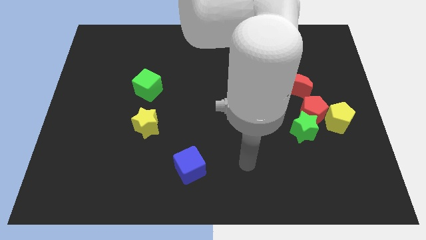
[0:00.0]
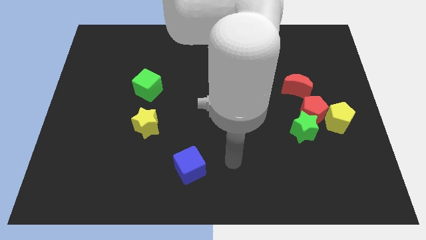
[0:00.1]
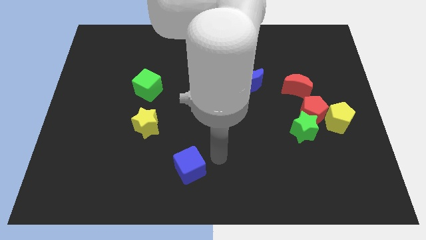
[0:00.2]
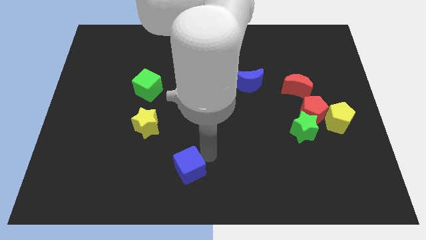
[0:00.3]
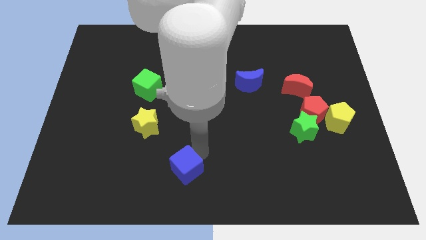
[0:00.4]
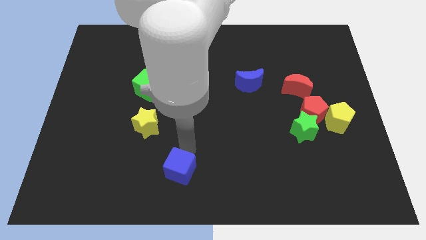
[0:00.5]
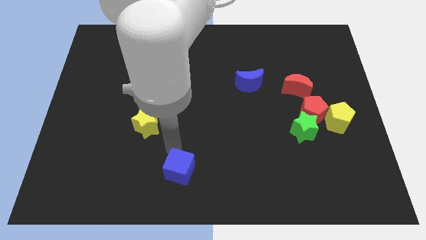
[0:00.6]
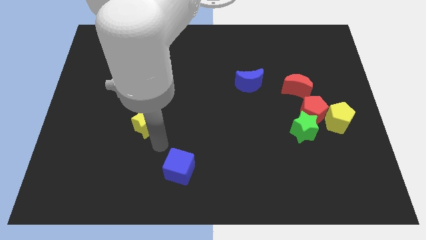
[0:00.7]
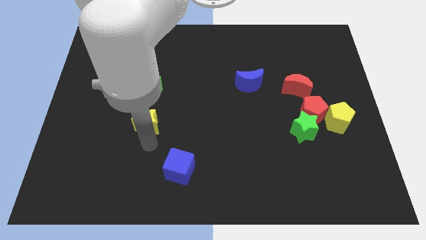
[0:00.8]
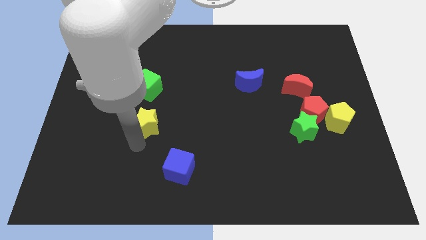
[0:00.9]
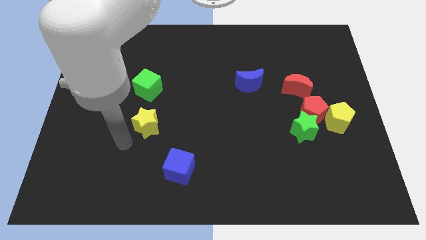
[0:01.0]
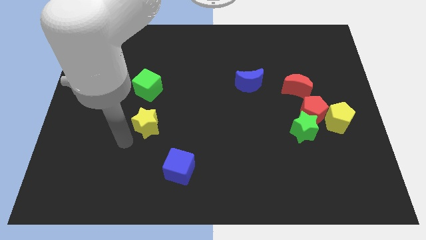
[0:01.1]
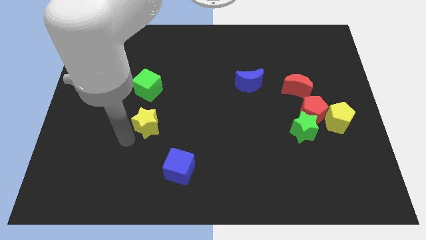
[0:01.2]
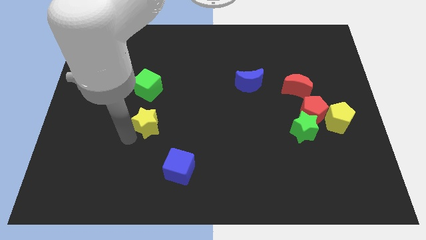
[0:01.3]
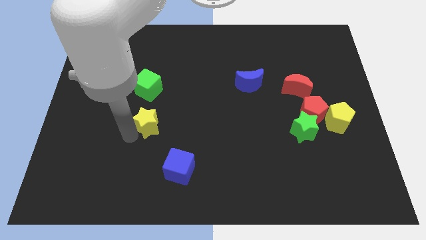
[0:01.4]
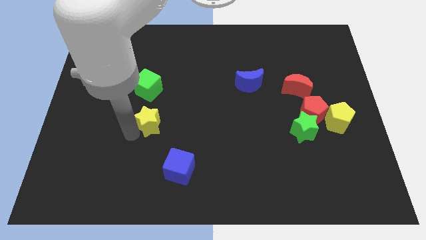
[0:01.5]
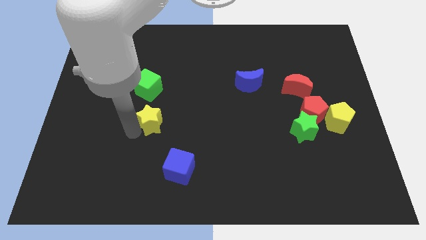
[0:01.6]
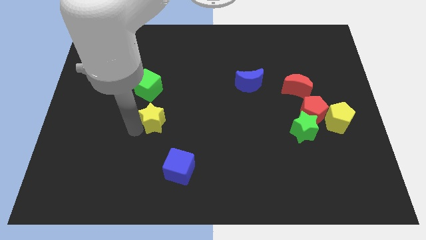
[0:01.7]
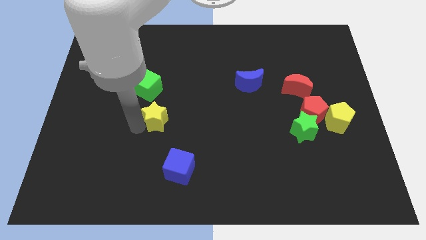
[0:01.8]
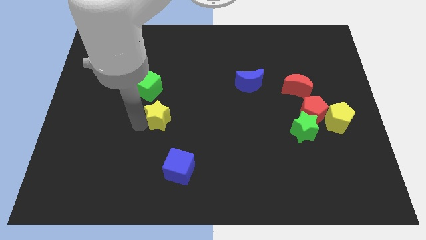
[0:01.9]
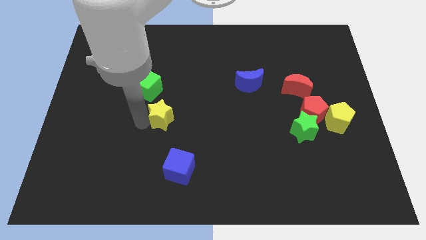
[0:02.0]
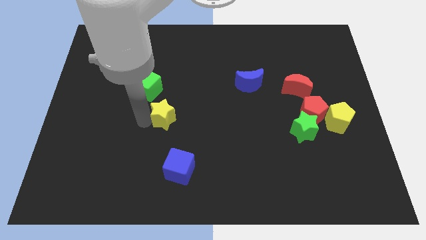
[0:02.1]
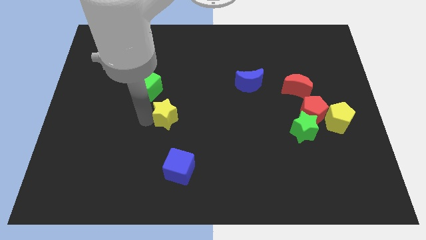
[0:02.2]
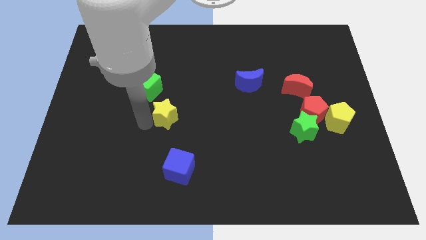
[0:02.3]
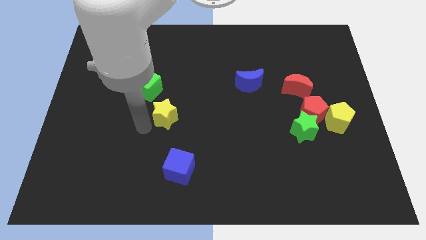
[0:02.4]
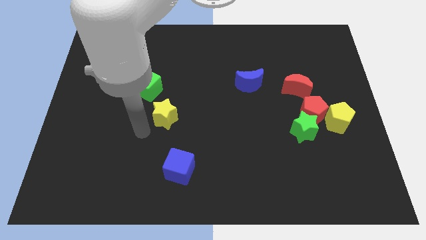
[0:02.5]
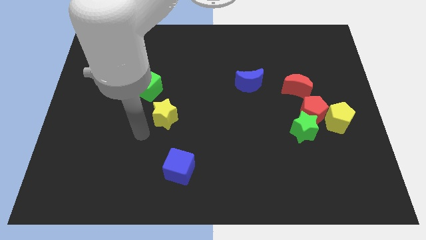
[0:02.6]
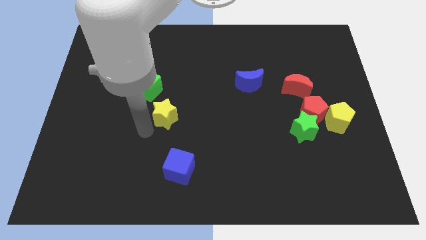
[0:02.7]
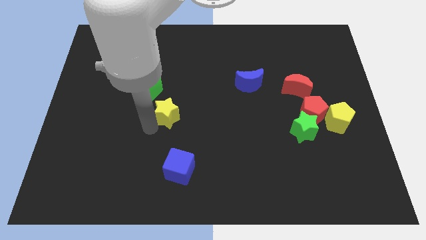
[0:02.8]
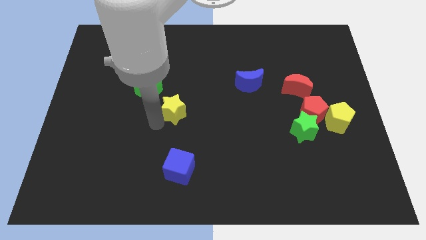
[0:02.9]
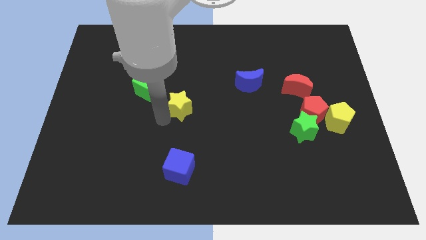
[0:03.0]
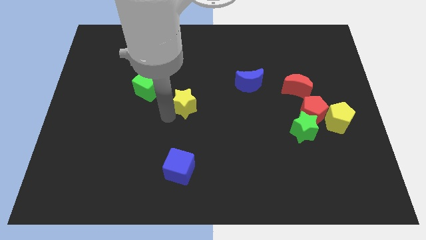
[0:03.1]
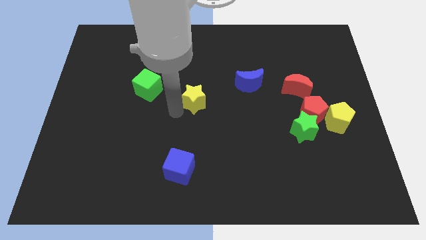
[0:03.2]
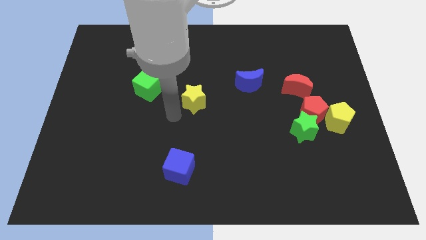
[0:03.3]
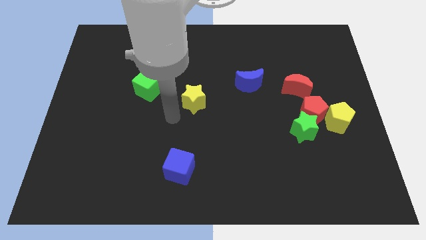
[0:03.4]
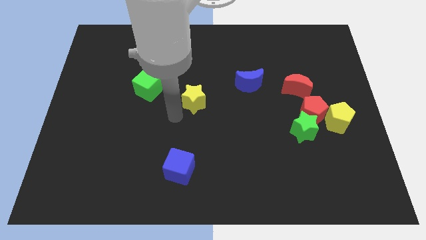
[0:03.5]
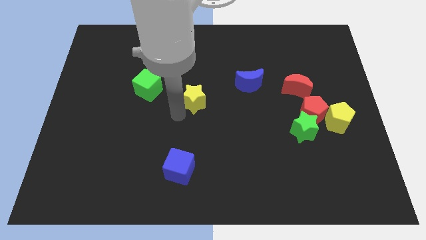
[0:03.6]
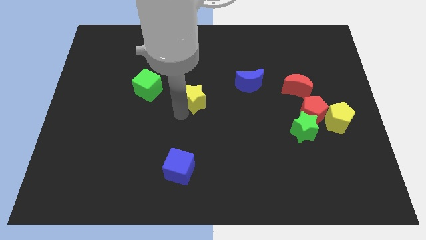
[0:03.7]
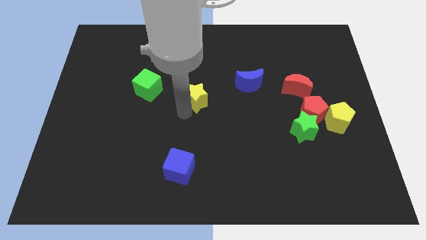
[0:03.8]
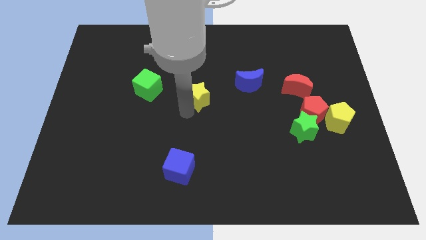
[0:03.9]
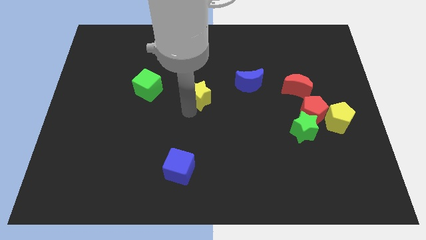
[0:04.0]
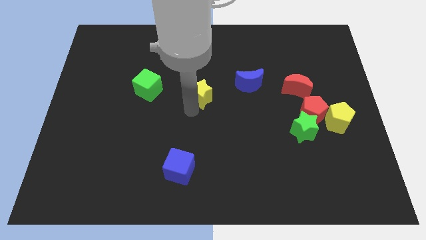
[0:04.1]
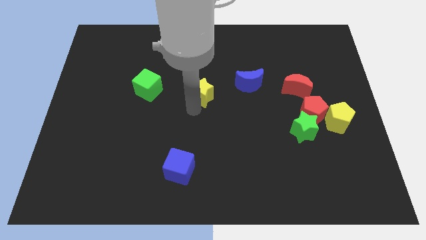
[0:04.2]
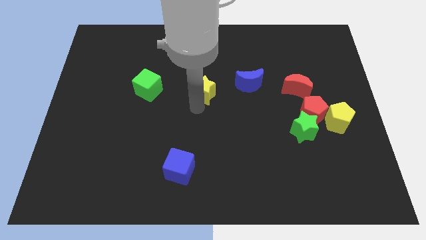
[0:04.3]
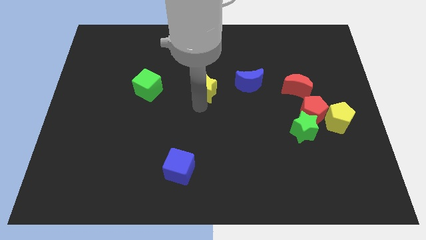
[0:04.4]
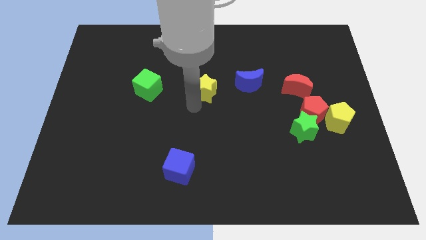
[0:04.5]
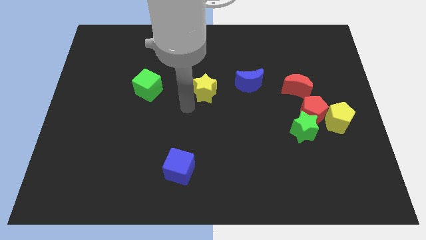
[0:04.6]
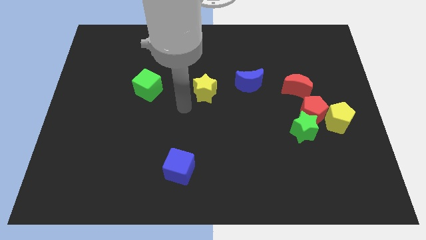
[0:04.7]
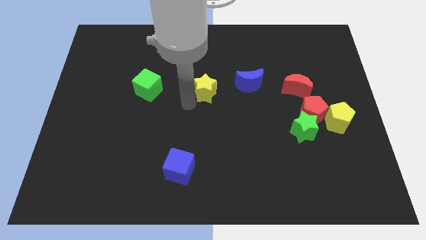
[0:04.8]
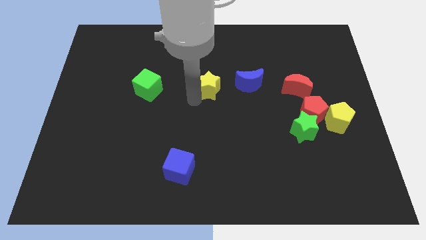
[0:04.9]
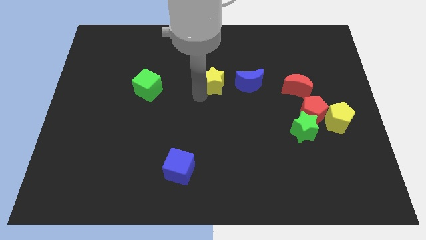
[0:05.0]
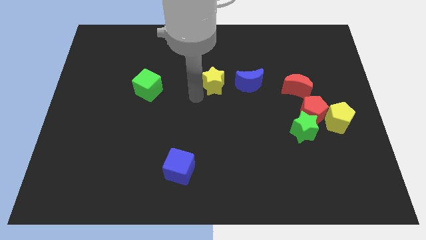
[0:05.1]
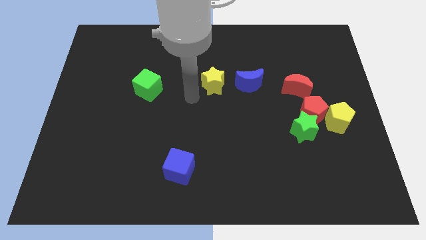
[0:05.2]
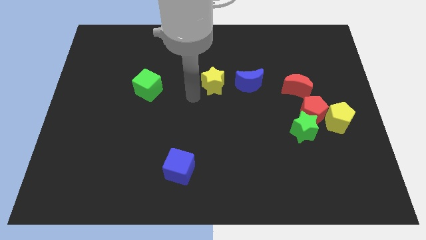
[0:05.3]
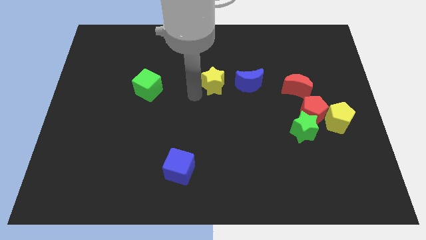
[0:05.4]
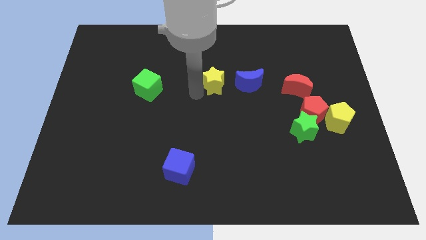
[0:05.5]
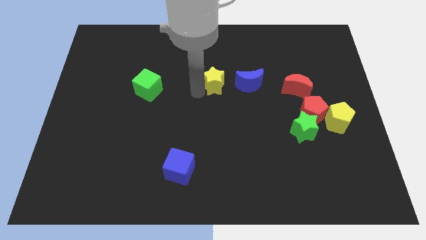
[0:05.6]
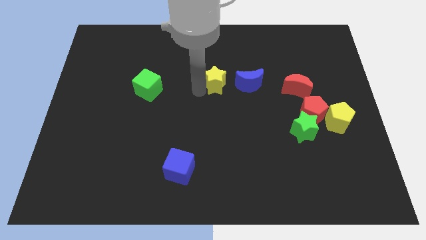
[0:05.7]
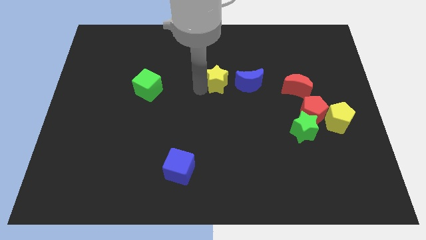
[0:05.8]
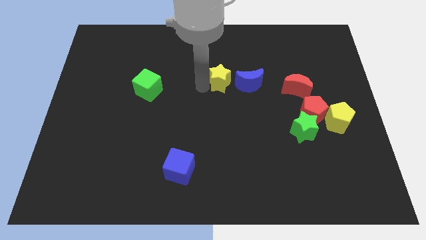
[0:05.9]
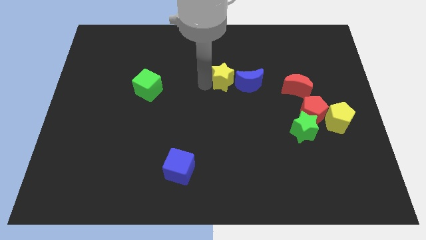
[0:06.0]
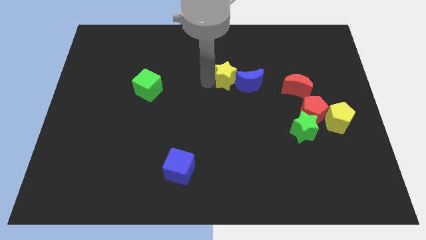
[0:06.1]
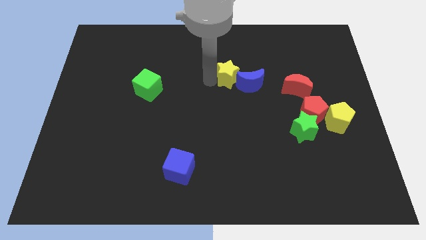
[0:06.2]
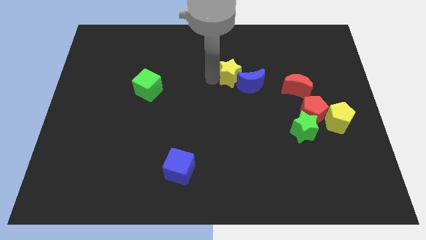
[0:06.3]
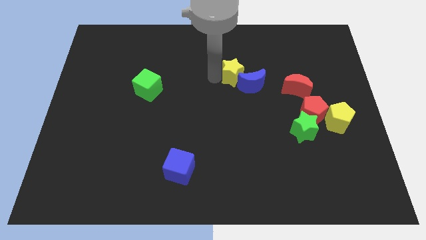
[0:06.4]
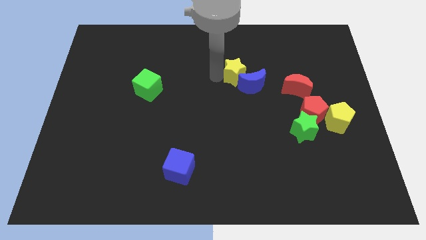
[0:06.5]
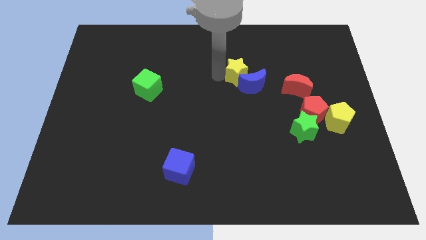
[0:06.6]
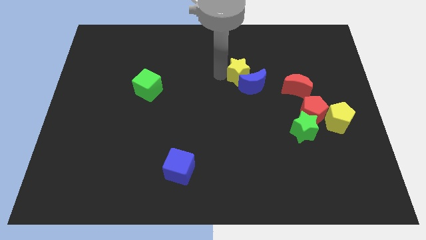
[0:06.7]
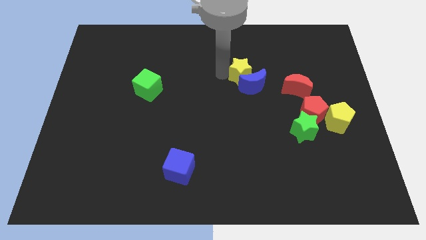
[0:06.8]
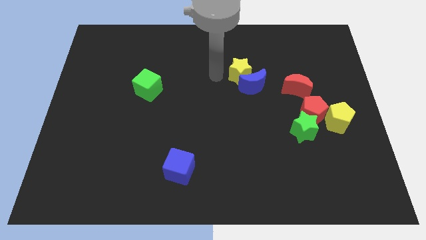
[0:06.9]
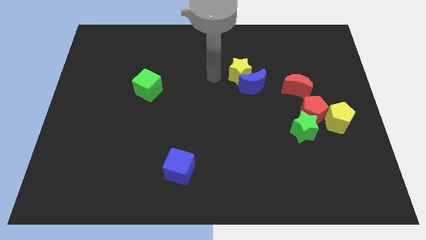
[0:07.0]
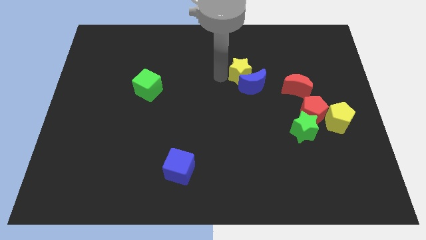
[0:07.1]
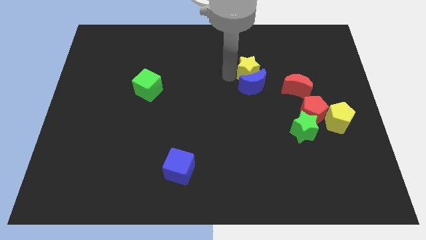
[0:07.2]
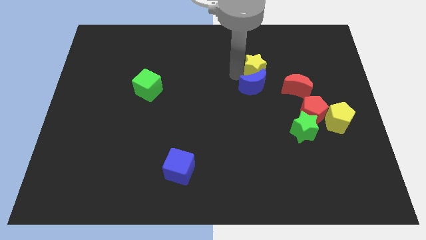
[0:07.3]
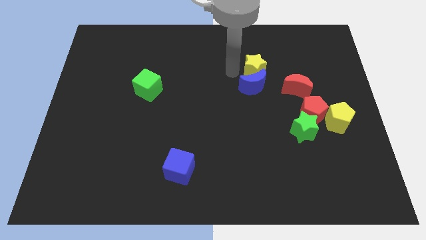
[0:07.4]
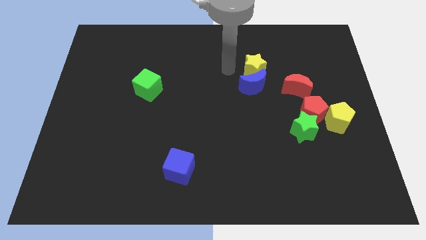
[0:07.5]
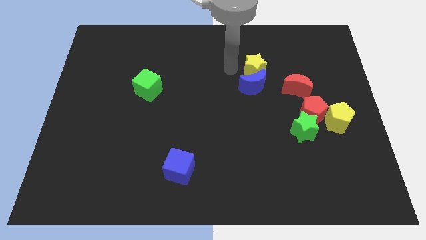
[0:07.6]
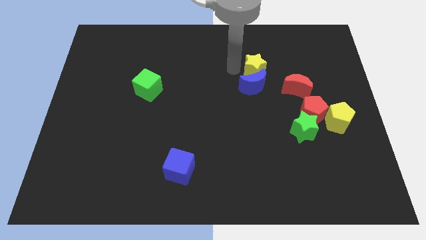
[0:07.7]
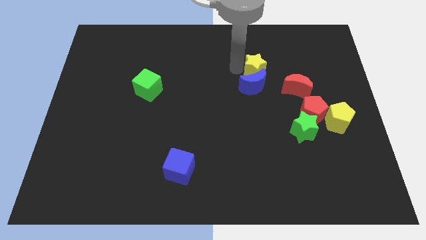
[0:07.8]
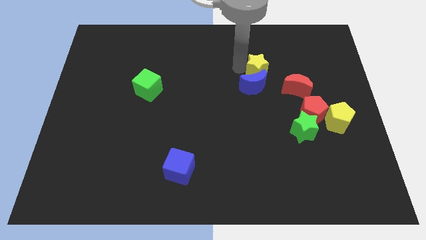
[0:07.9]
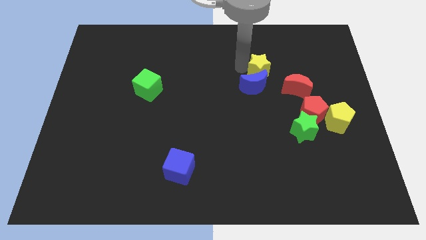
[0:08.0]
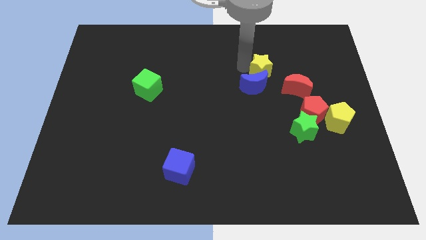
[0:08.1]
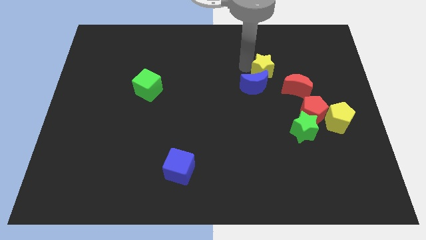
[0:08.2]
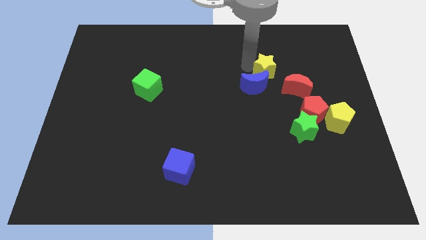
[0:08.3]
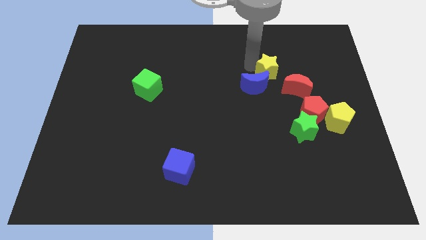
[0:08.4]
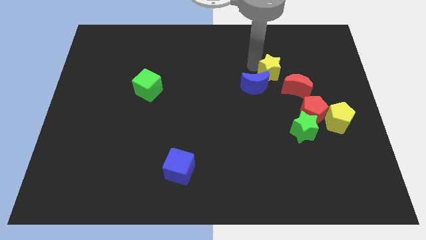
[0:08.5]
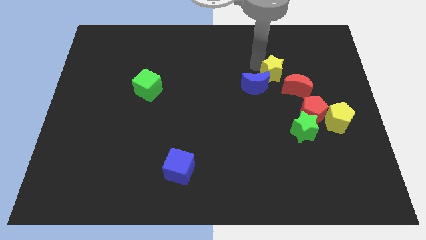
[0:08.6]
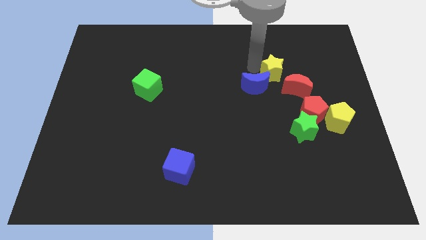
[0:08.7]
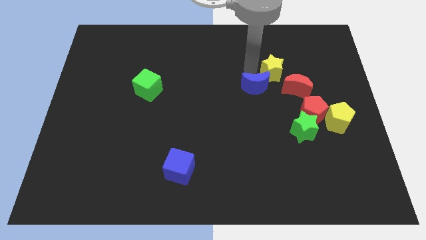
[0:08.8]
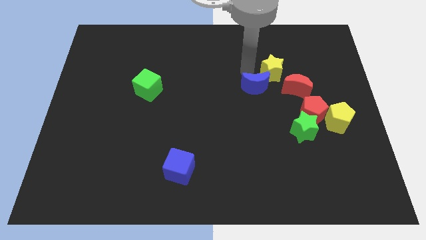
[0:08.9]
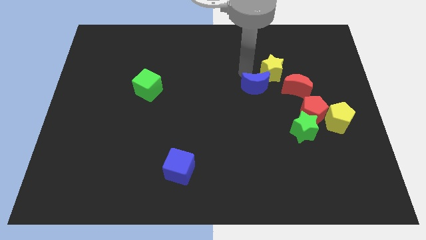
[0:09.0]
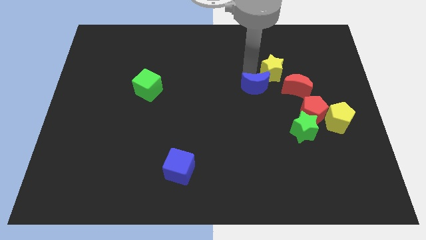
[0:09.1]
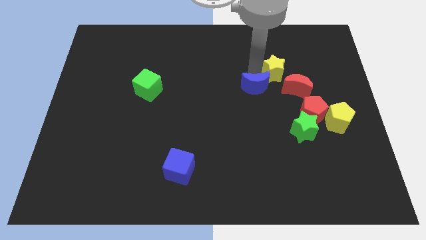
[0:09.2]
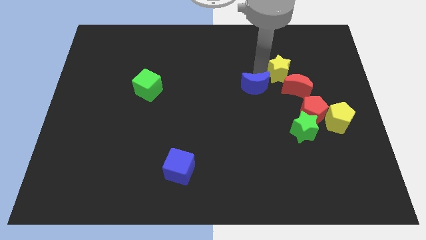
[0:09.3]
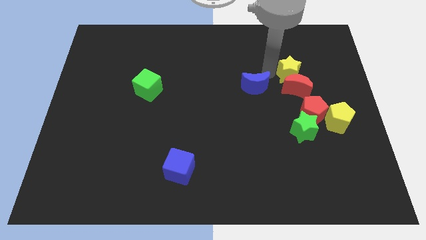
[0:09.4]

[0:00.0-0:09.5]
slide the yellow star to the top right side of the red moon
